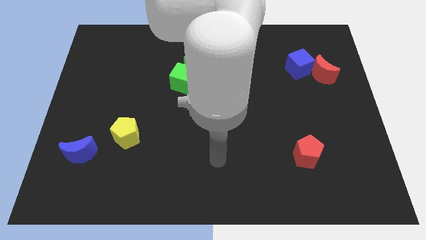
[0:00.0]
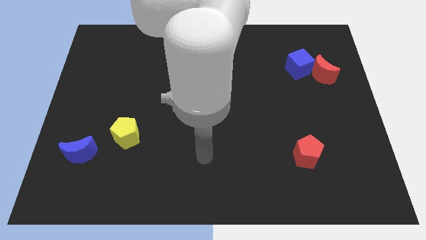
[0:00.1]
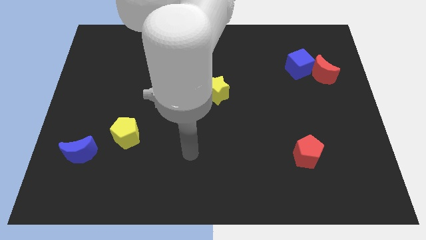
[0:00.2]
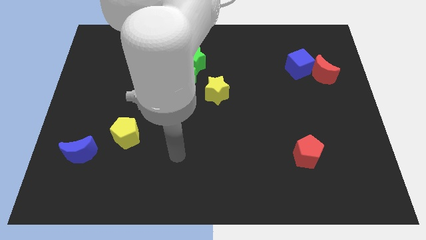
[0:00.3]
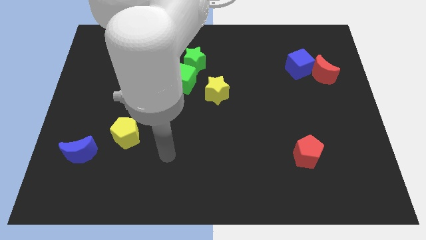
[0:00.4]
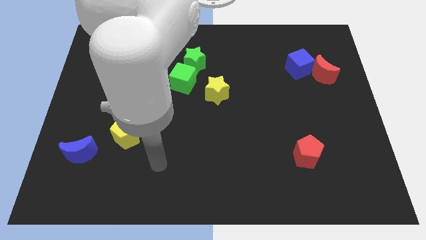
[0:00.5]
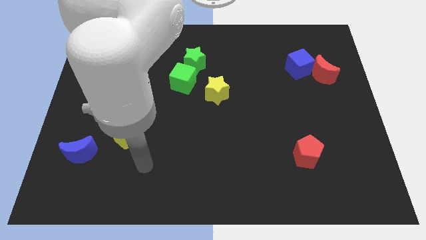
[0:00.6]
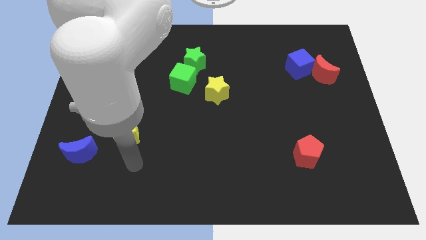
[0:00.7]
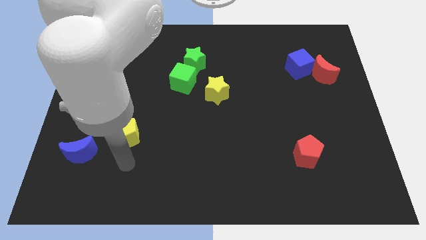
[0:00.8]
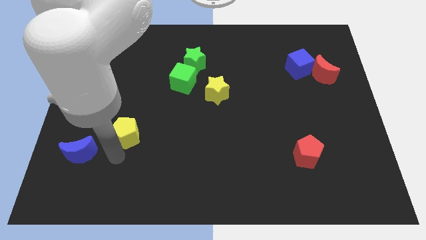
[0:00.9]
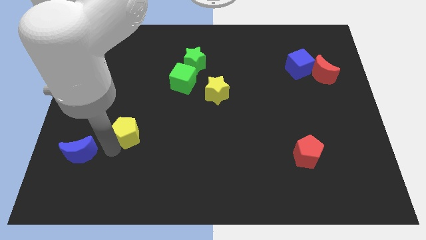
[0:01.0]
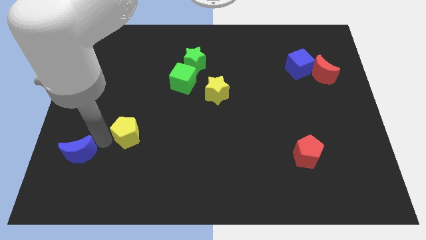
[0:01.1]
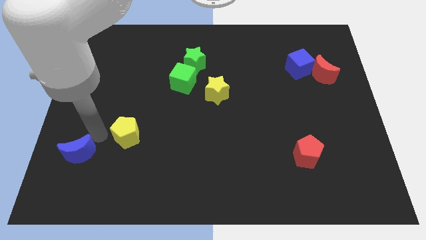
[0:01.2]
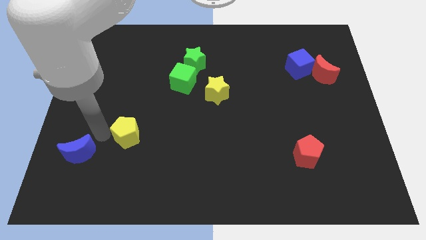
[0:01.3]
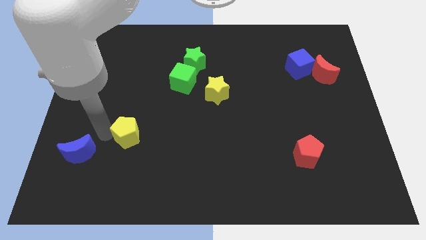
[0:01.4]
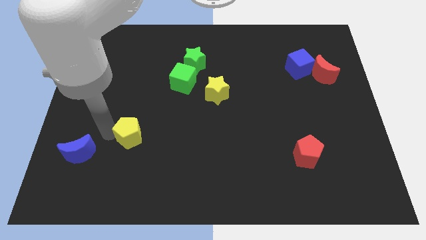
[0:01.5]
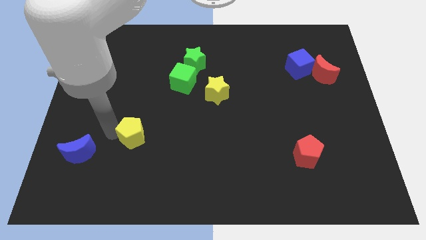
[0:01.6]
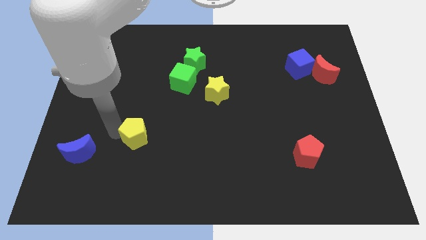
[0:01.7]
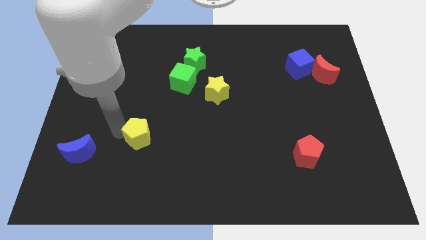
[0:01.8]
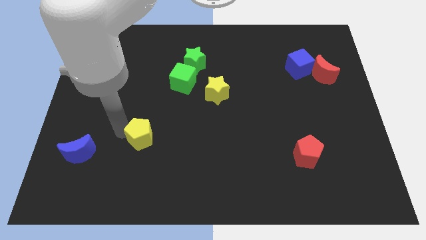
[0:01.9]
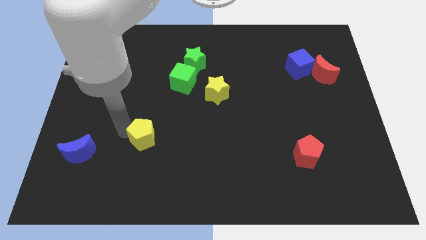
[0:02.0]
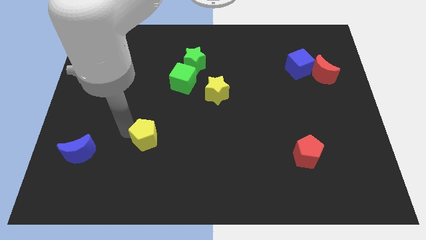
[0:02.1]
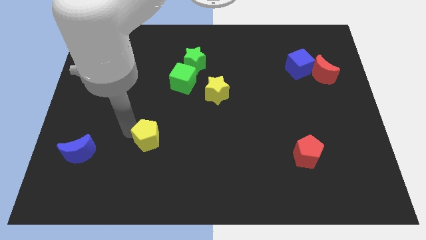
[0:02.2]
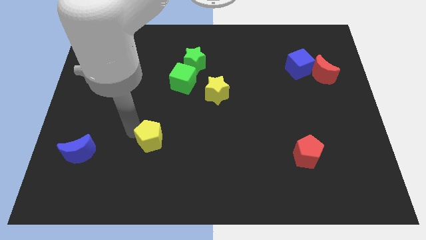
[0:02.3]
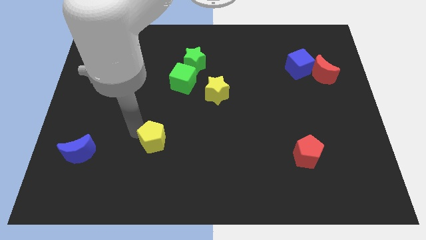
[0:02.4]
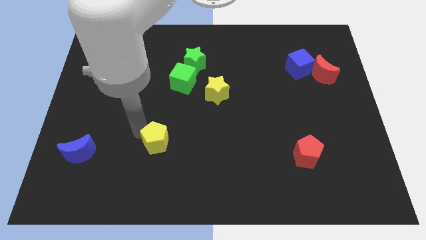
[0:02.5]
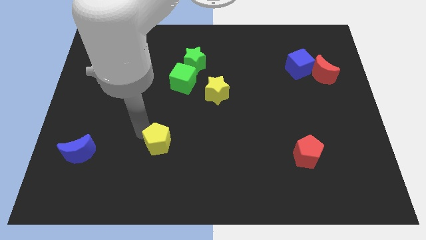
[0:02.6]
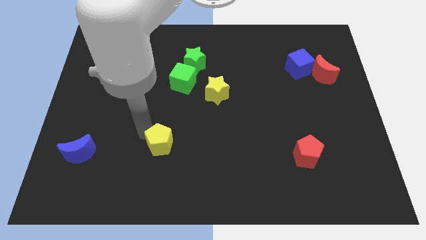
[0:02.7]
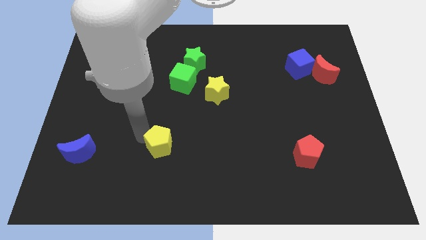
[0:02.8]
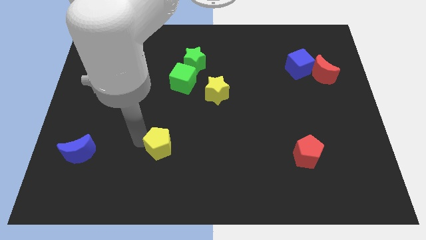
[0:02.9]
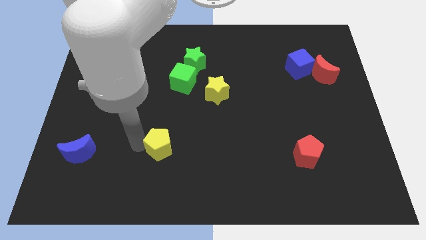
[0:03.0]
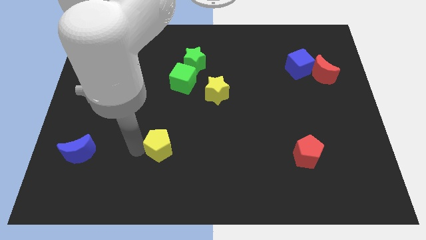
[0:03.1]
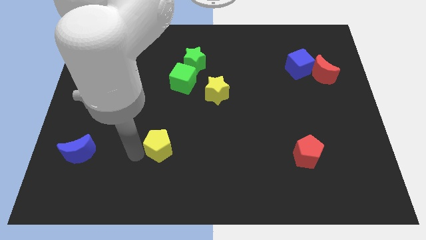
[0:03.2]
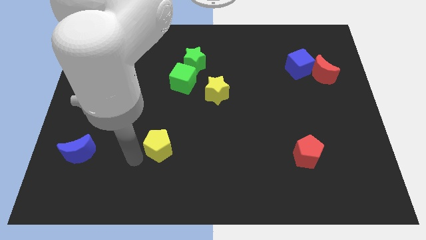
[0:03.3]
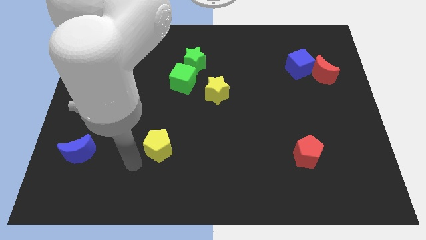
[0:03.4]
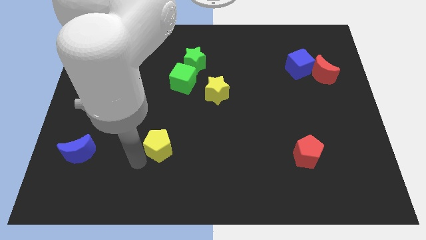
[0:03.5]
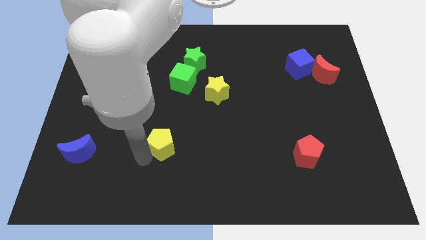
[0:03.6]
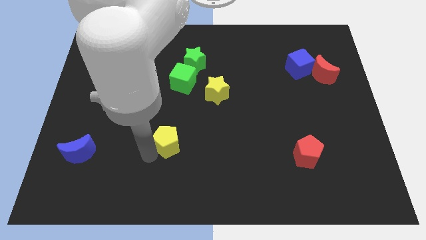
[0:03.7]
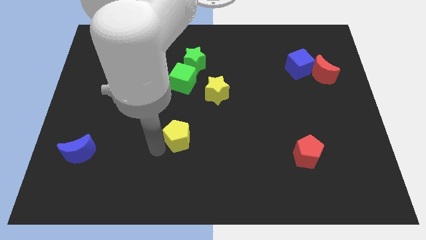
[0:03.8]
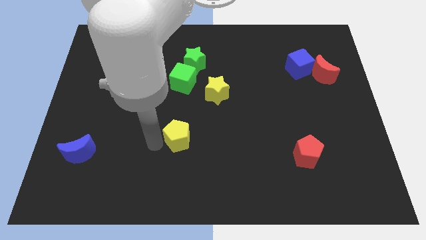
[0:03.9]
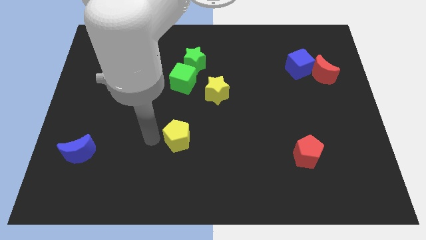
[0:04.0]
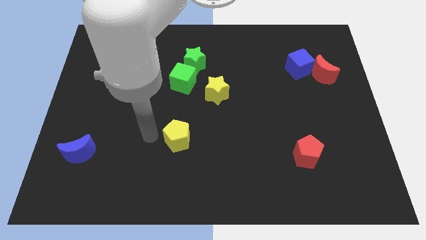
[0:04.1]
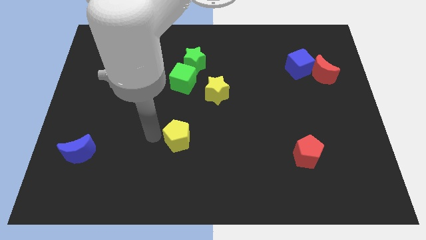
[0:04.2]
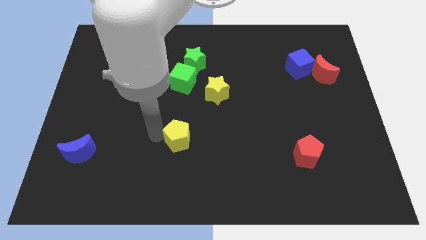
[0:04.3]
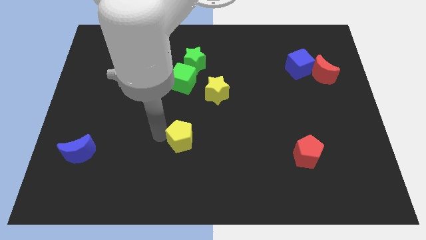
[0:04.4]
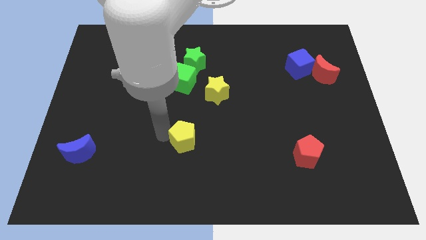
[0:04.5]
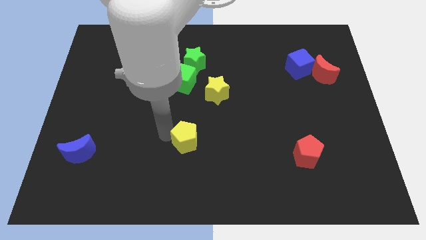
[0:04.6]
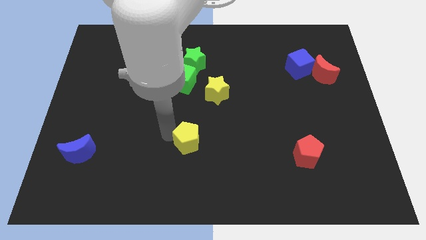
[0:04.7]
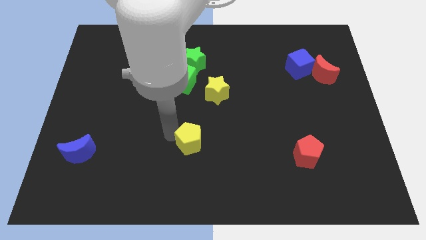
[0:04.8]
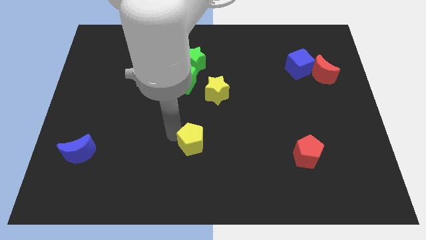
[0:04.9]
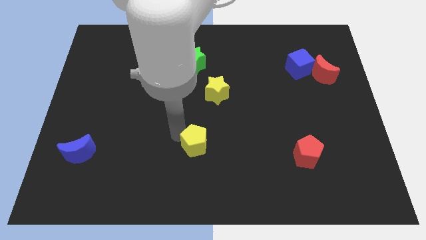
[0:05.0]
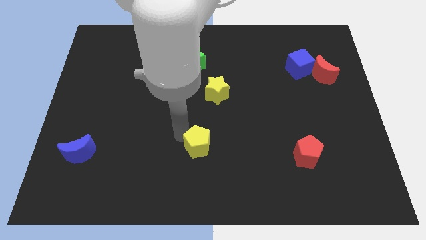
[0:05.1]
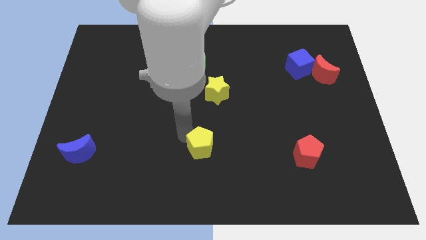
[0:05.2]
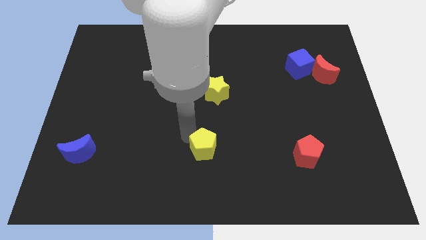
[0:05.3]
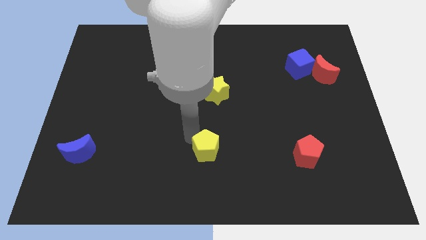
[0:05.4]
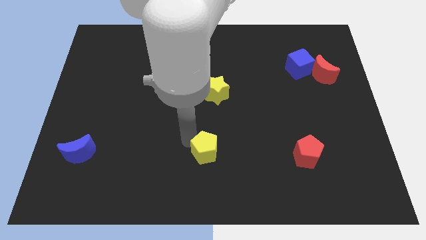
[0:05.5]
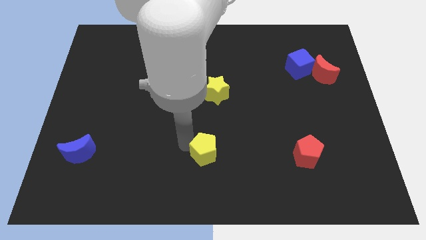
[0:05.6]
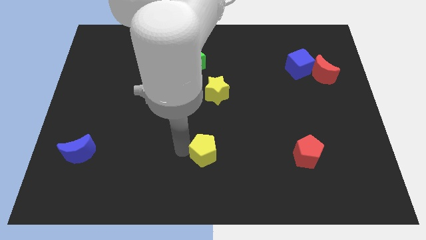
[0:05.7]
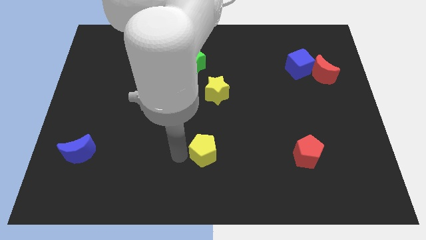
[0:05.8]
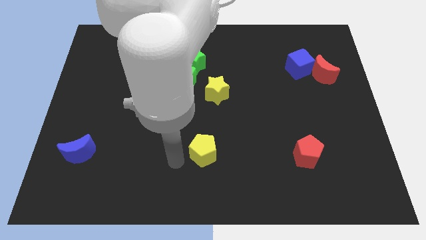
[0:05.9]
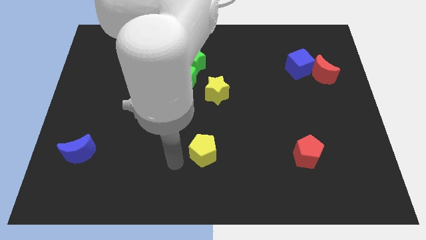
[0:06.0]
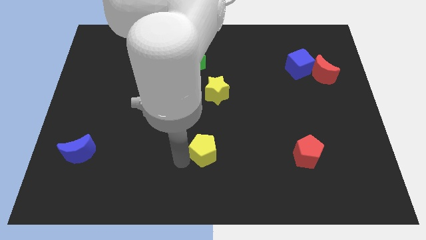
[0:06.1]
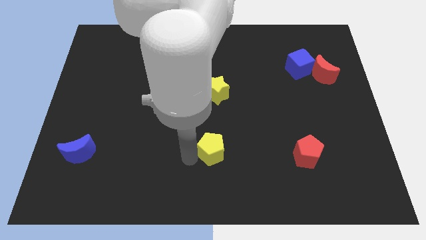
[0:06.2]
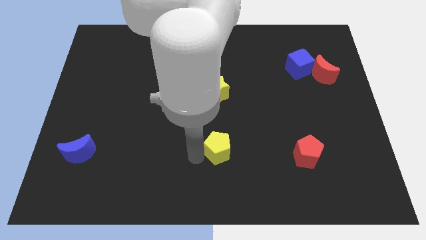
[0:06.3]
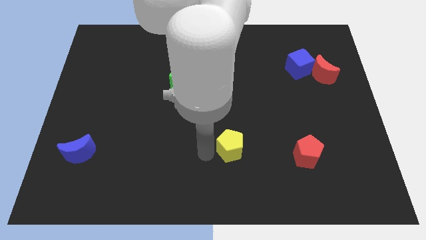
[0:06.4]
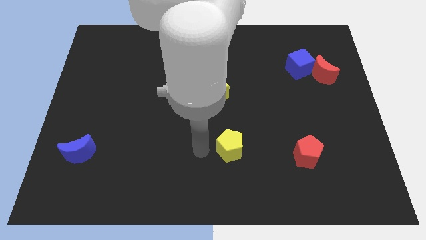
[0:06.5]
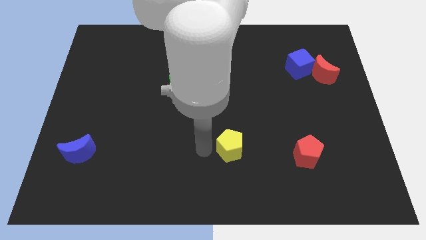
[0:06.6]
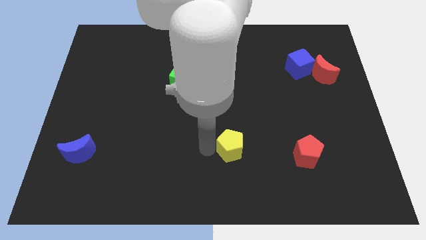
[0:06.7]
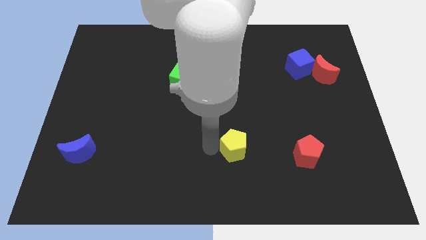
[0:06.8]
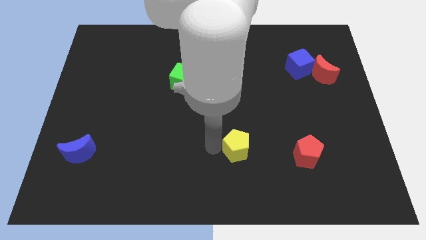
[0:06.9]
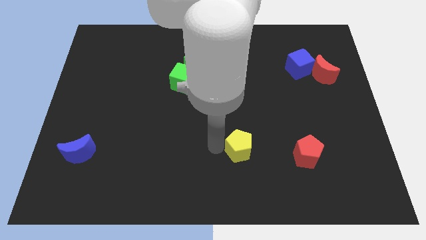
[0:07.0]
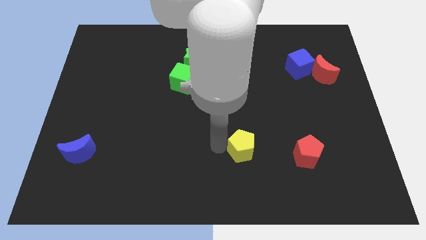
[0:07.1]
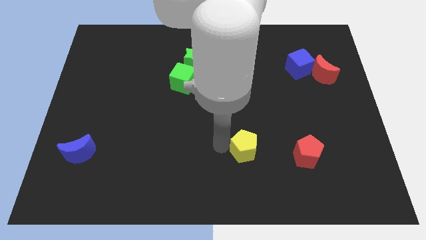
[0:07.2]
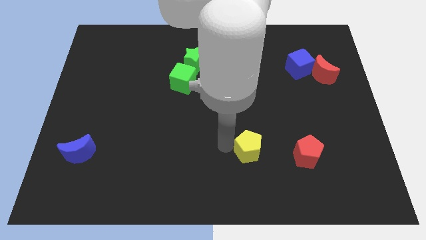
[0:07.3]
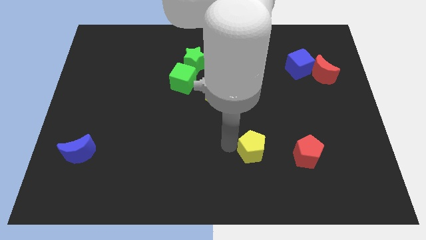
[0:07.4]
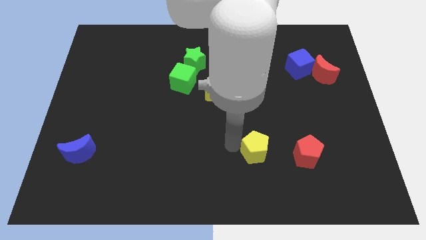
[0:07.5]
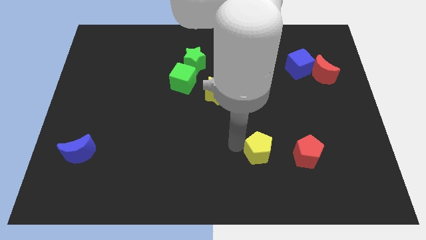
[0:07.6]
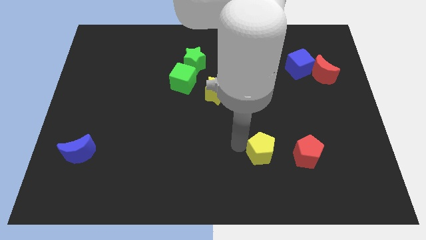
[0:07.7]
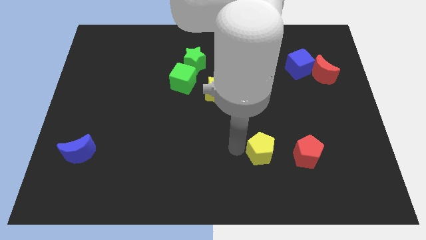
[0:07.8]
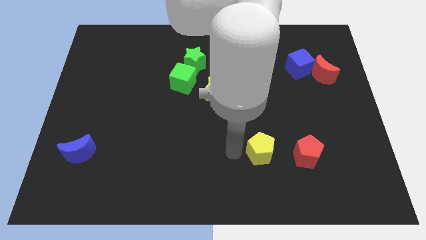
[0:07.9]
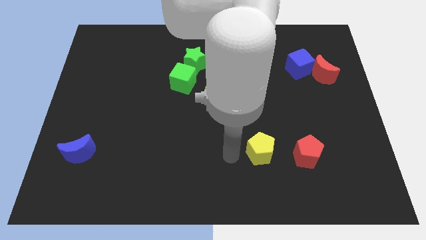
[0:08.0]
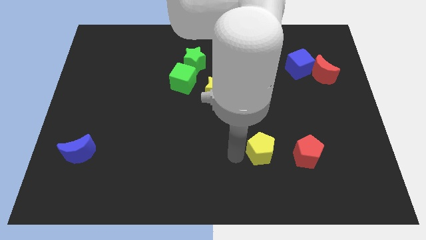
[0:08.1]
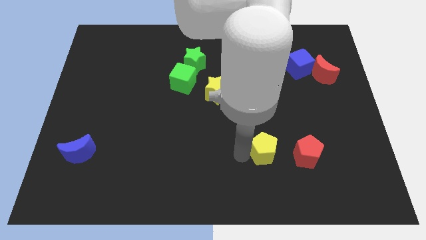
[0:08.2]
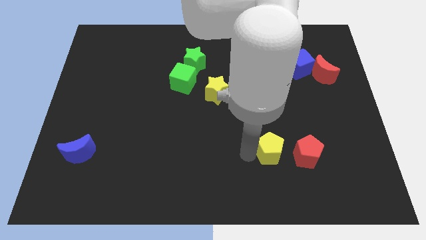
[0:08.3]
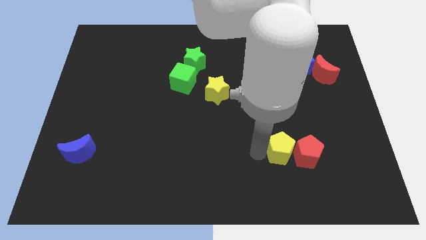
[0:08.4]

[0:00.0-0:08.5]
push the yellow pentagon next to the red pentagon
